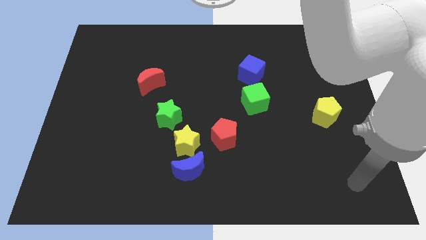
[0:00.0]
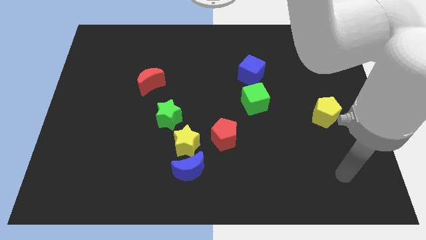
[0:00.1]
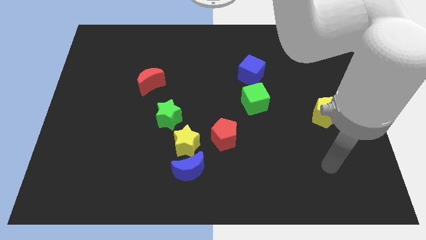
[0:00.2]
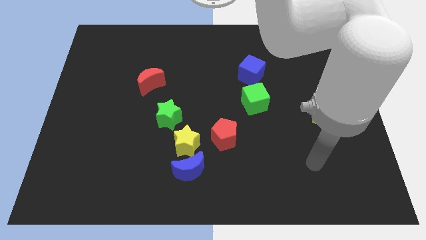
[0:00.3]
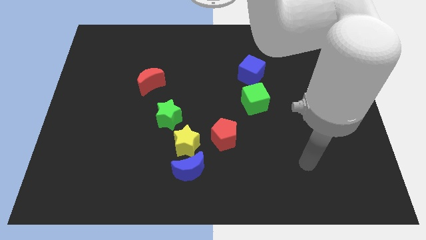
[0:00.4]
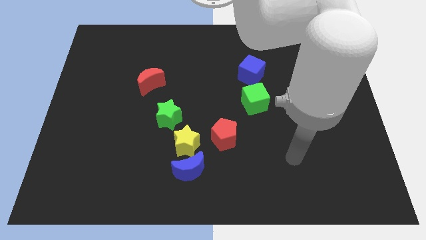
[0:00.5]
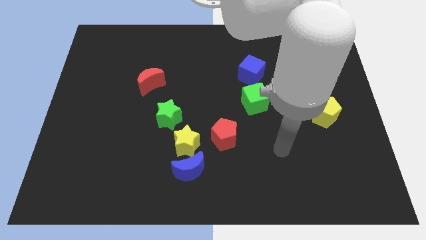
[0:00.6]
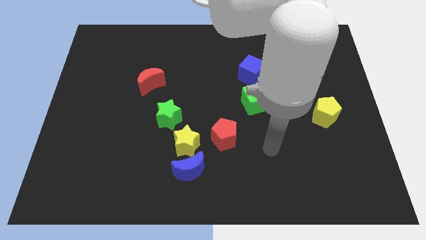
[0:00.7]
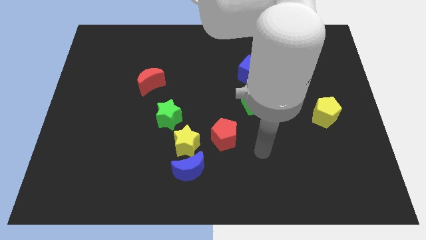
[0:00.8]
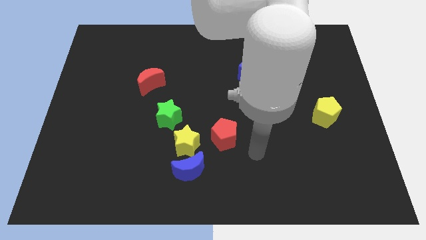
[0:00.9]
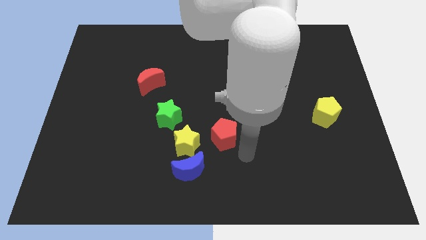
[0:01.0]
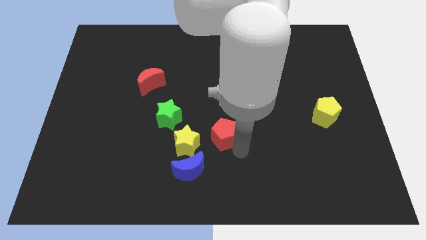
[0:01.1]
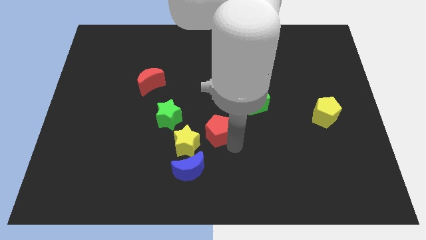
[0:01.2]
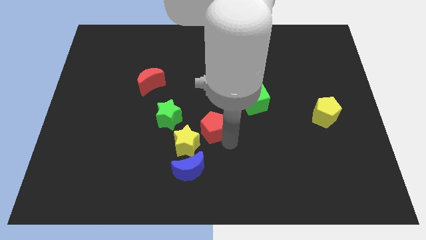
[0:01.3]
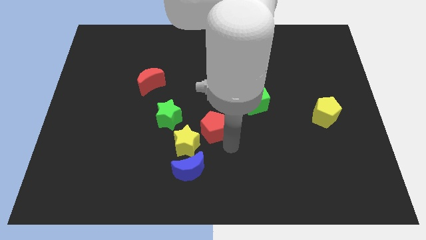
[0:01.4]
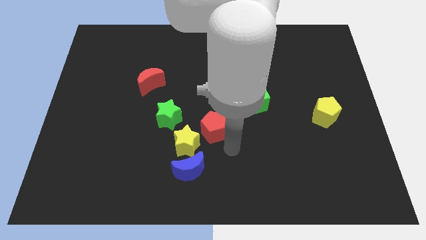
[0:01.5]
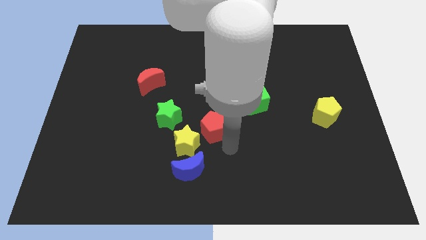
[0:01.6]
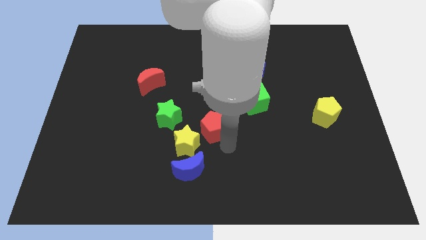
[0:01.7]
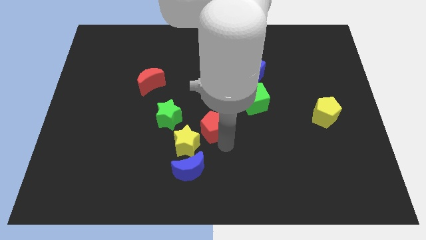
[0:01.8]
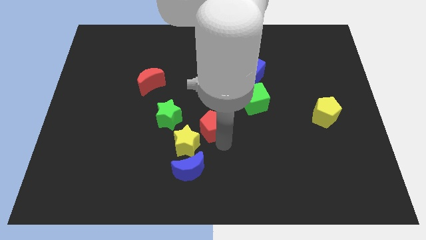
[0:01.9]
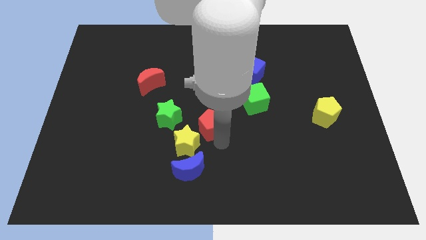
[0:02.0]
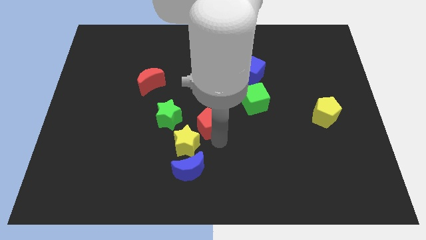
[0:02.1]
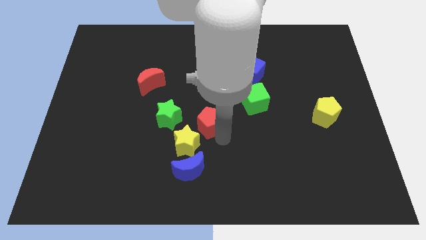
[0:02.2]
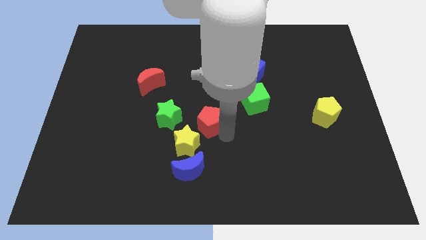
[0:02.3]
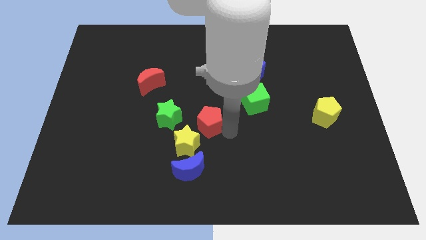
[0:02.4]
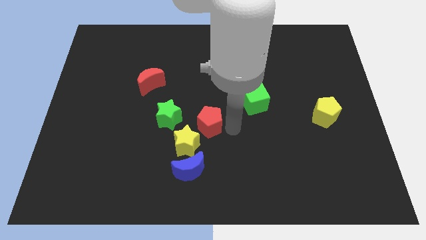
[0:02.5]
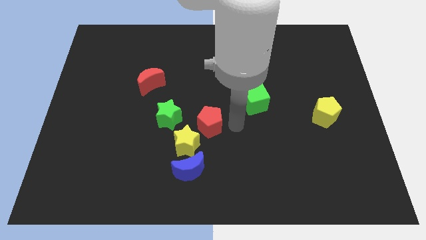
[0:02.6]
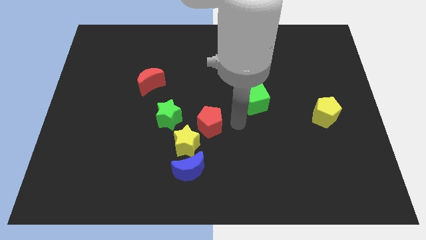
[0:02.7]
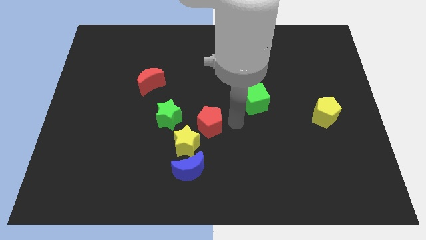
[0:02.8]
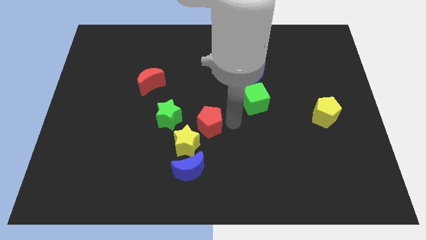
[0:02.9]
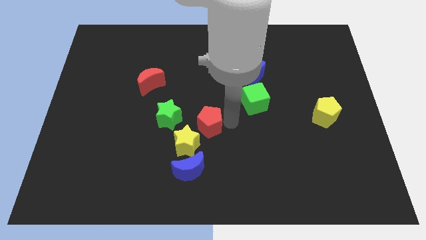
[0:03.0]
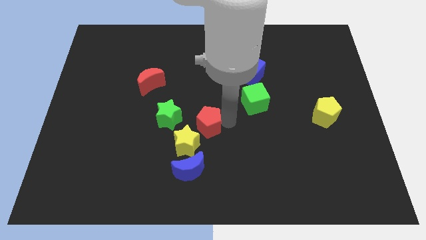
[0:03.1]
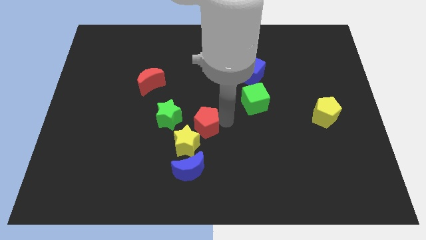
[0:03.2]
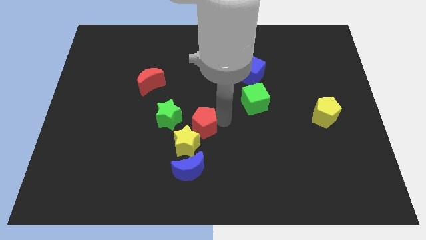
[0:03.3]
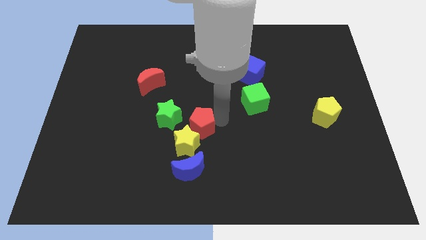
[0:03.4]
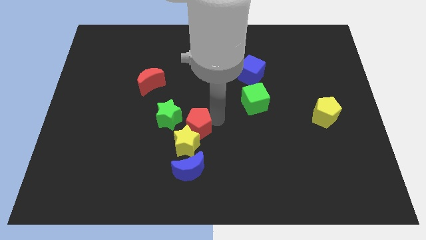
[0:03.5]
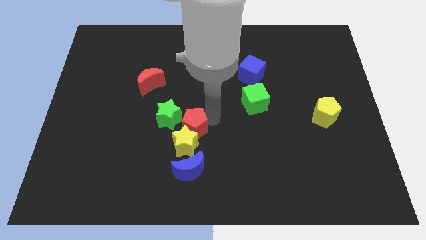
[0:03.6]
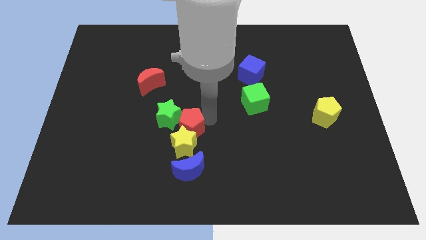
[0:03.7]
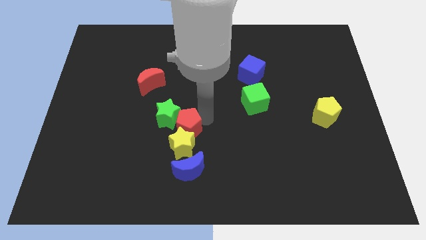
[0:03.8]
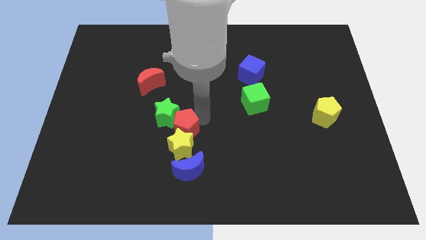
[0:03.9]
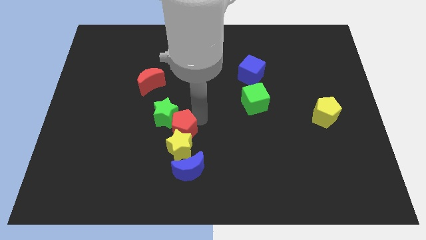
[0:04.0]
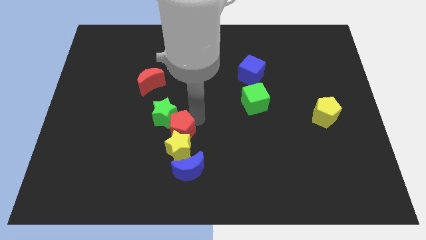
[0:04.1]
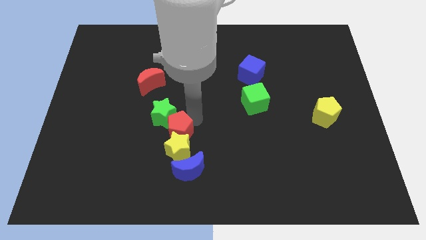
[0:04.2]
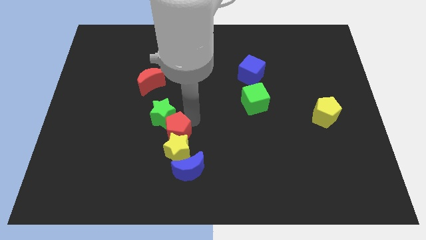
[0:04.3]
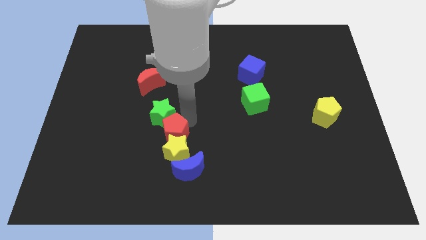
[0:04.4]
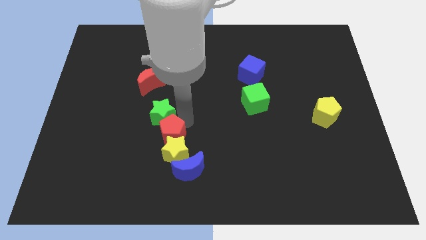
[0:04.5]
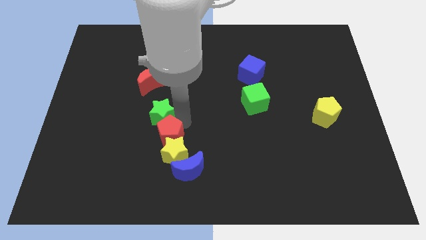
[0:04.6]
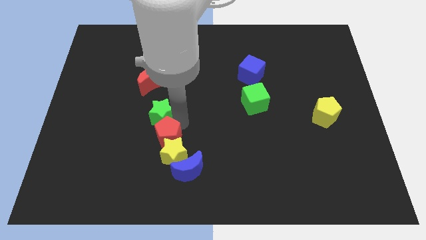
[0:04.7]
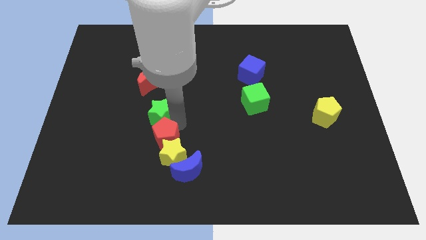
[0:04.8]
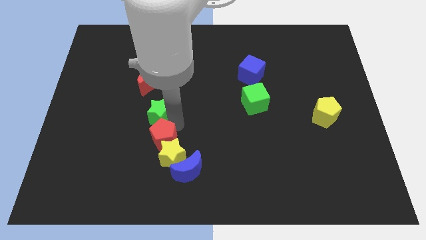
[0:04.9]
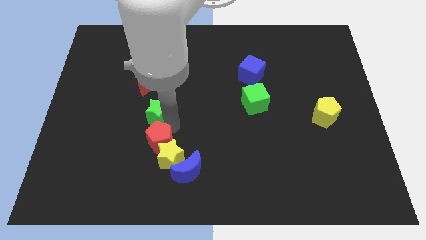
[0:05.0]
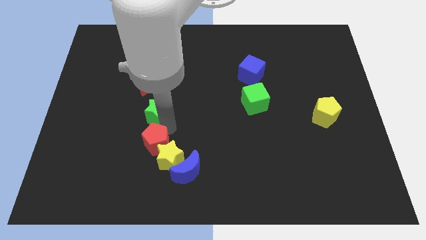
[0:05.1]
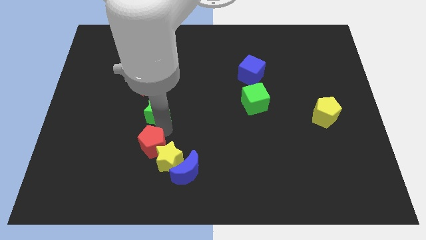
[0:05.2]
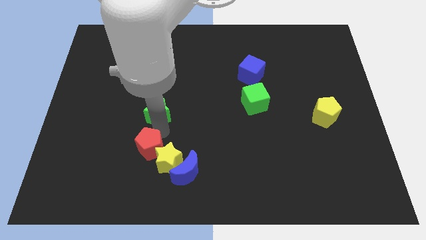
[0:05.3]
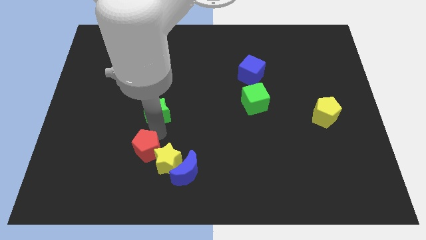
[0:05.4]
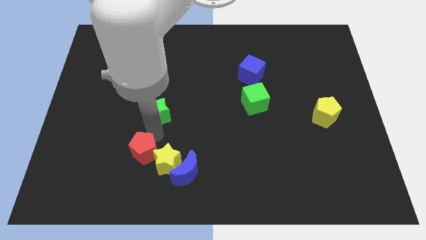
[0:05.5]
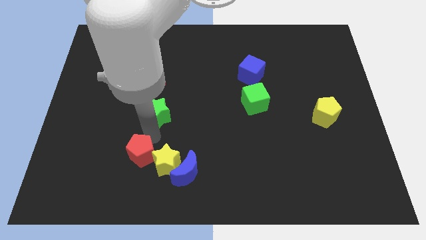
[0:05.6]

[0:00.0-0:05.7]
slide the red pentagon to the left side of the blue moon
